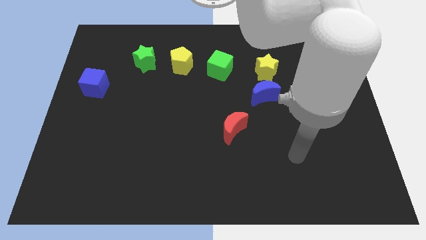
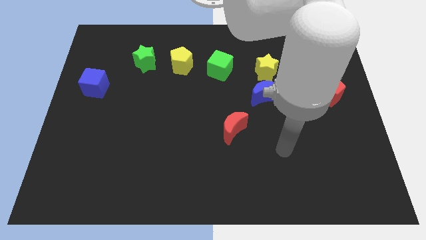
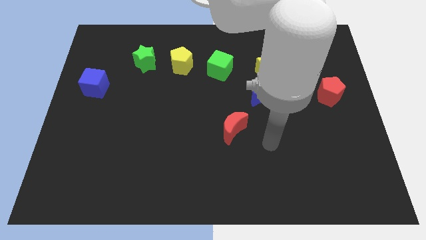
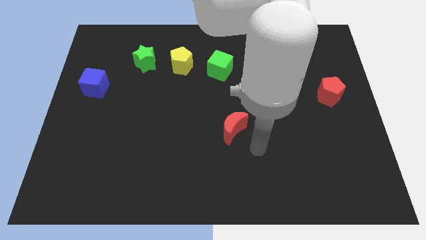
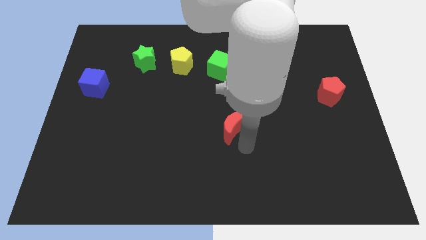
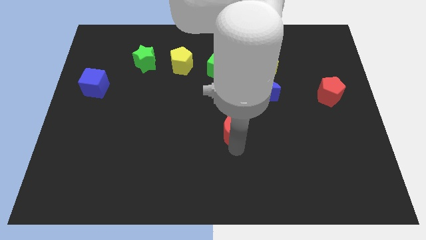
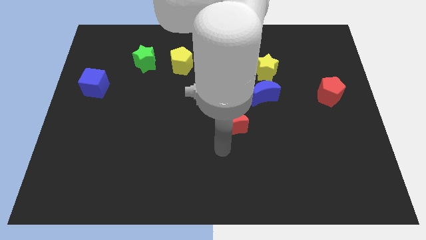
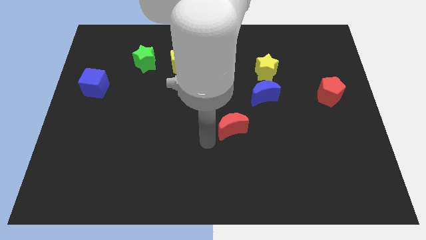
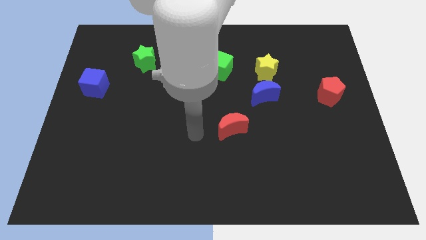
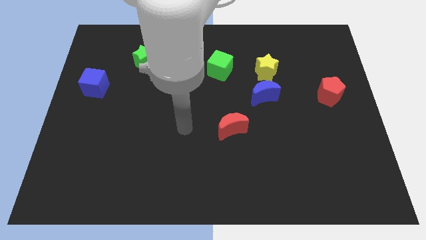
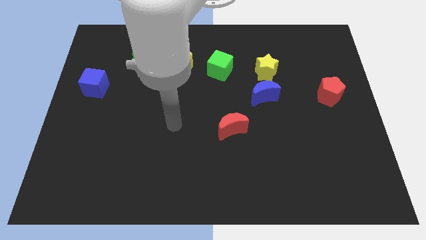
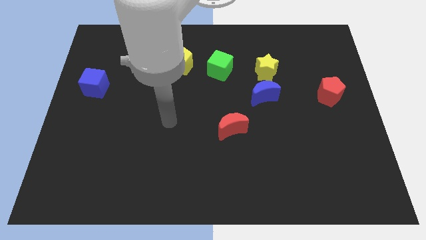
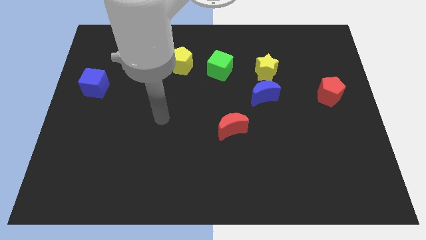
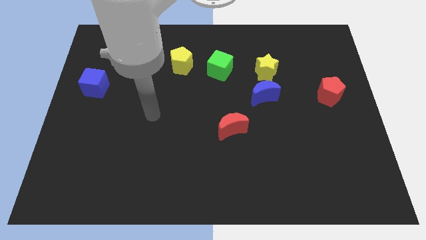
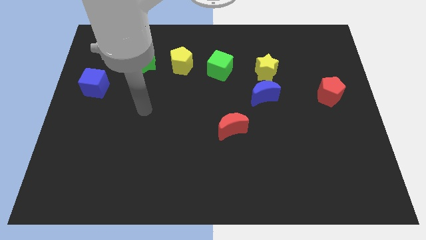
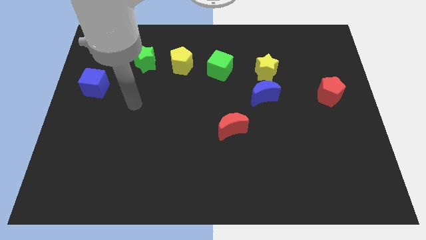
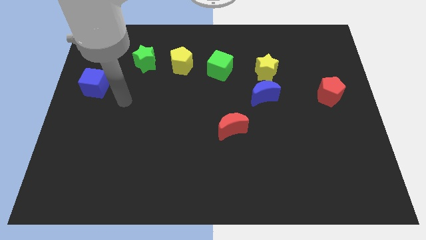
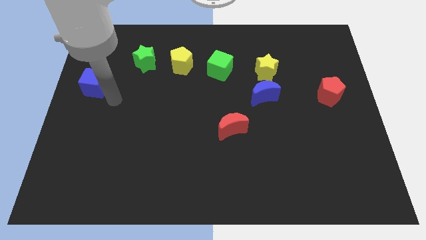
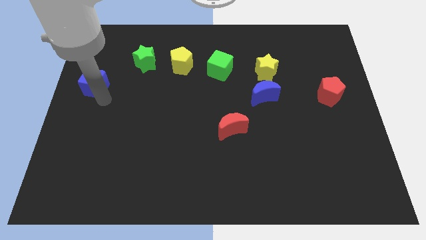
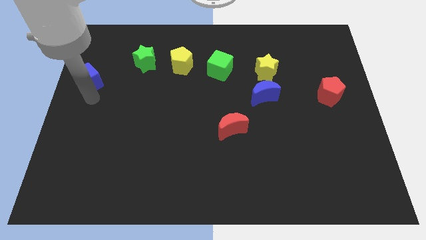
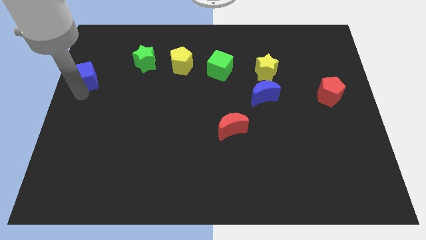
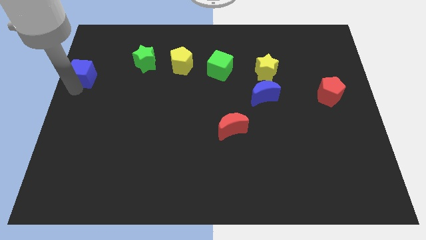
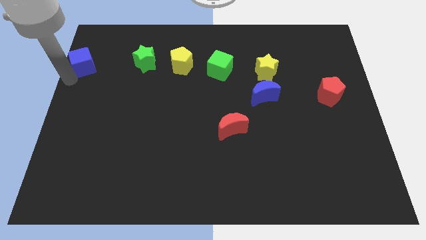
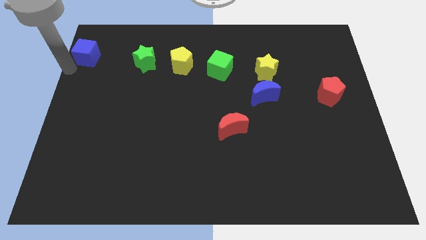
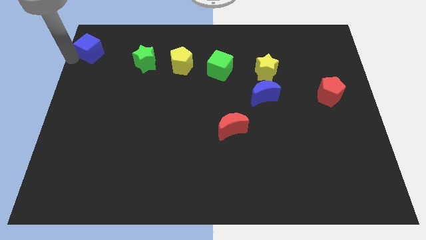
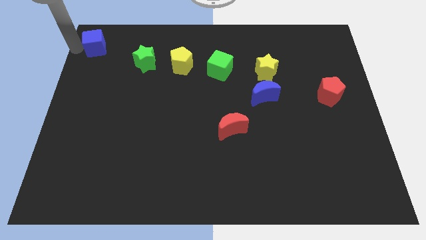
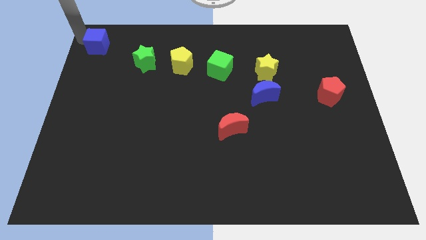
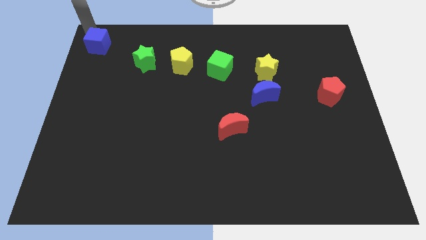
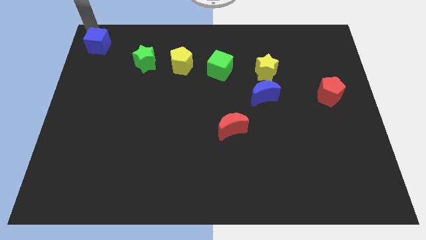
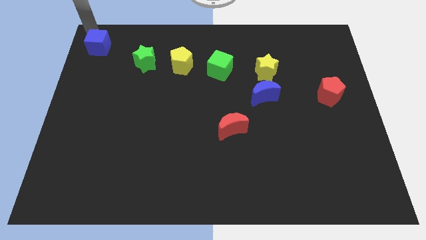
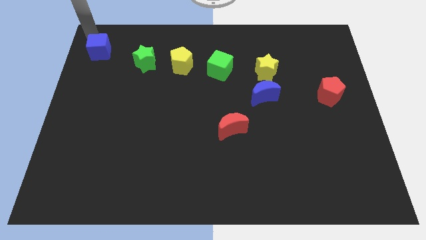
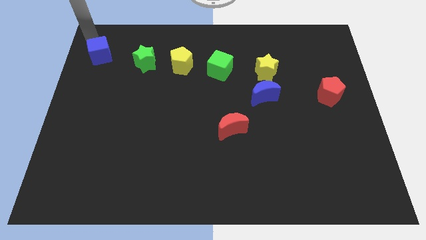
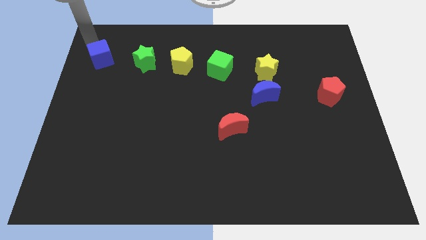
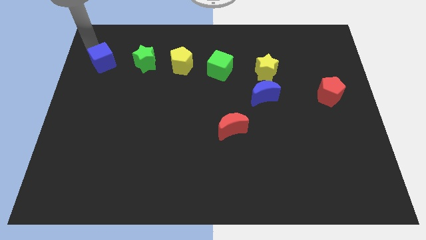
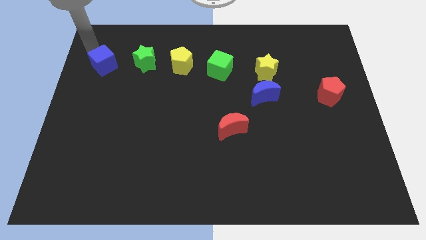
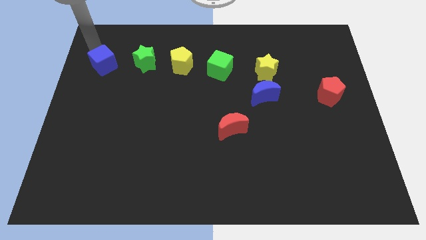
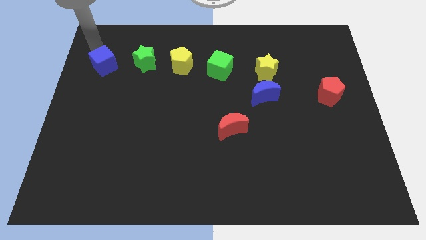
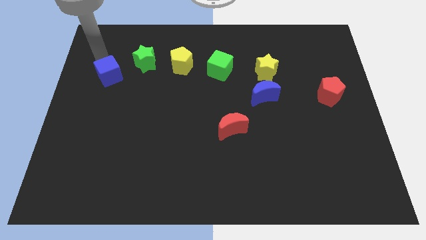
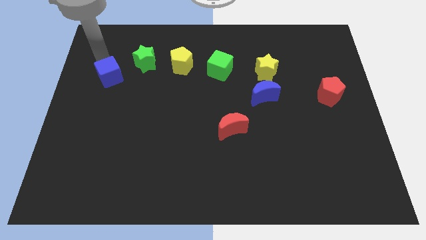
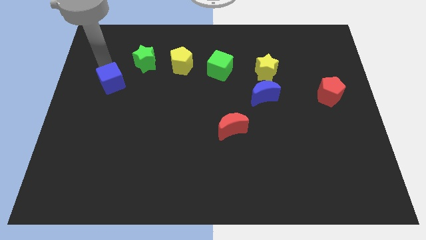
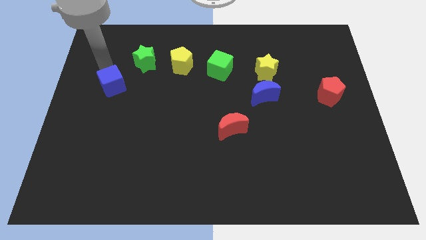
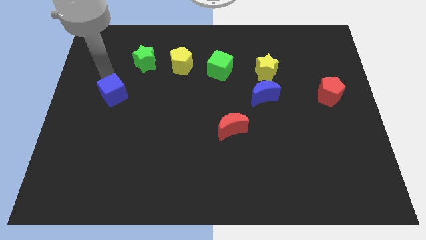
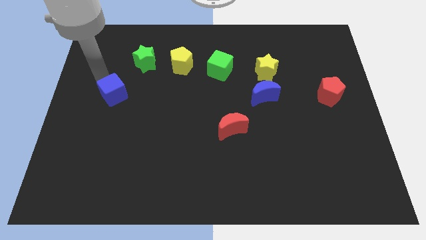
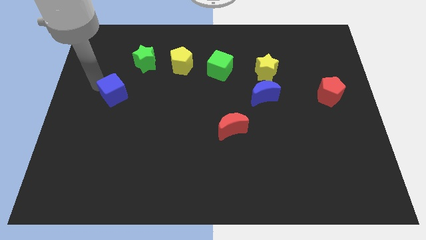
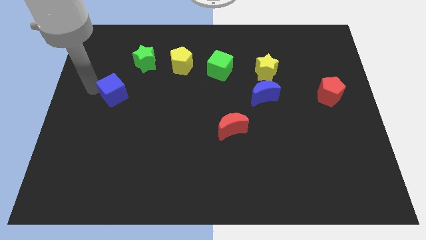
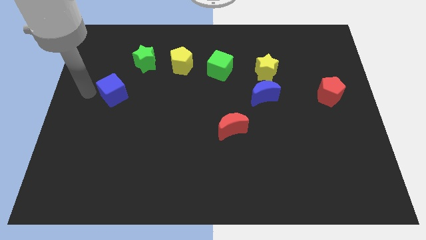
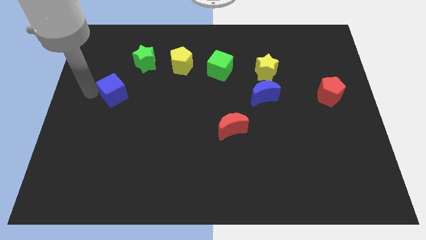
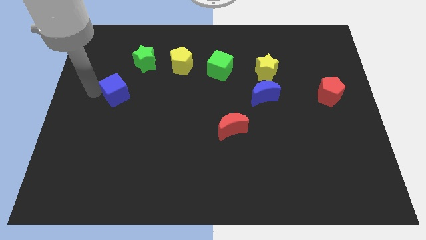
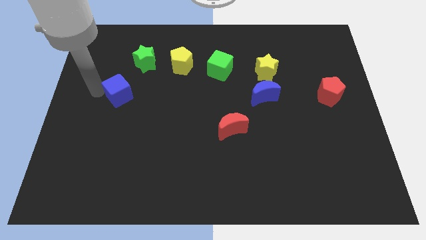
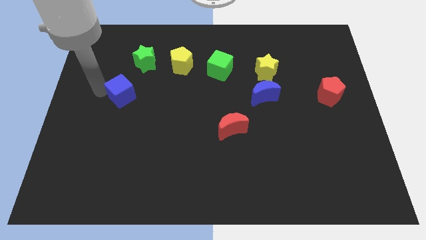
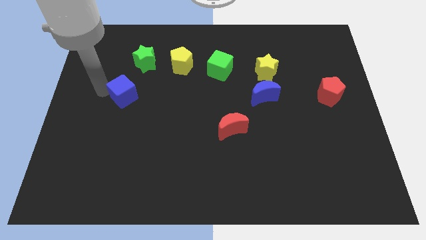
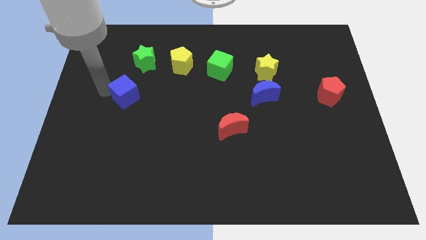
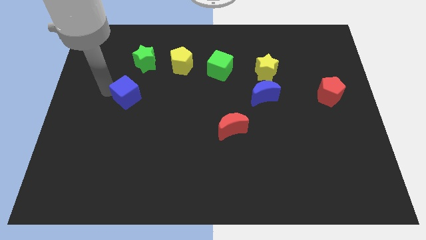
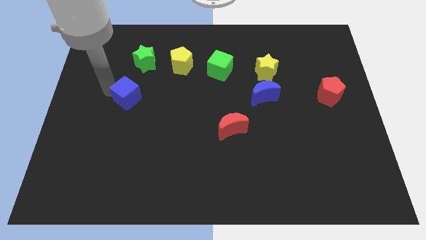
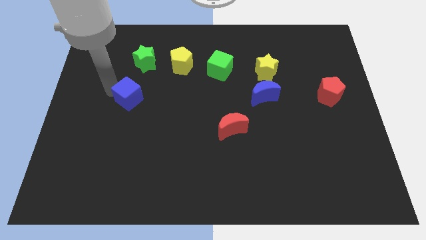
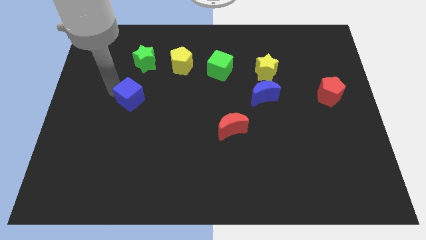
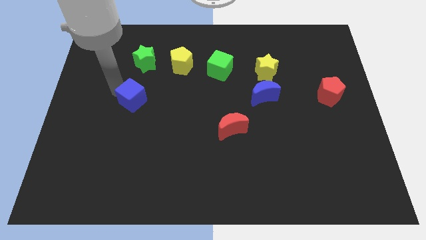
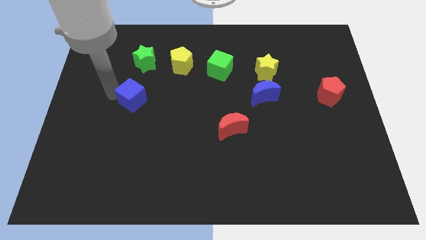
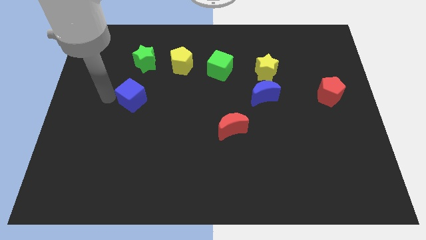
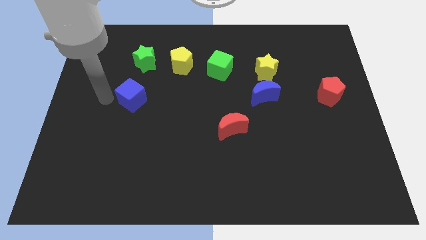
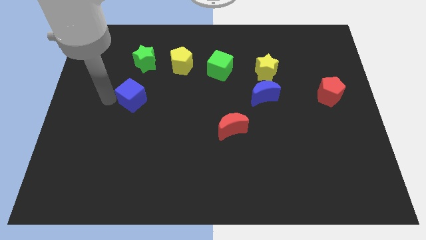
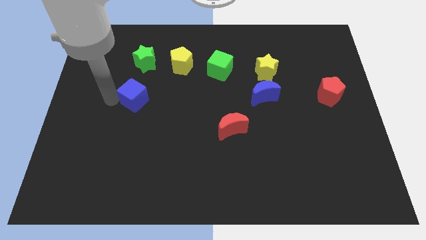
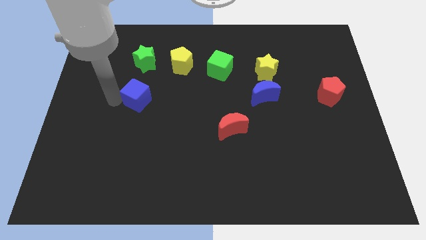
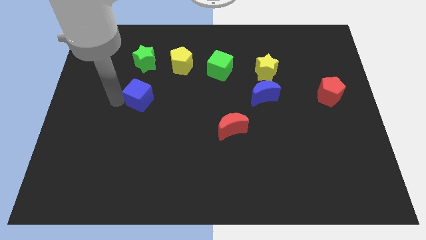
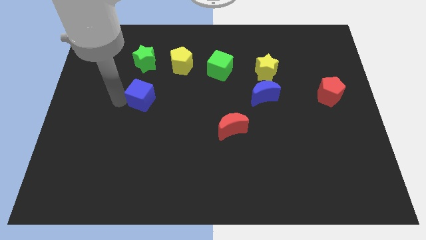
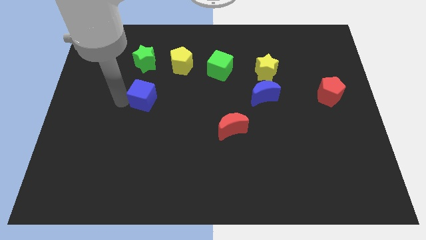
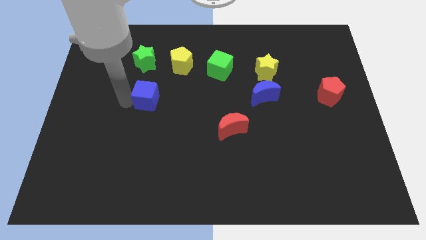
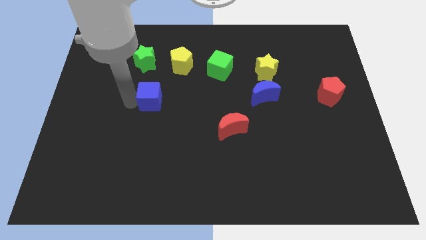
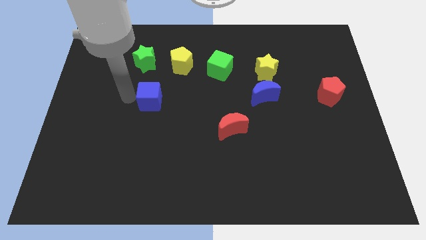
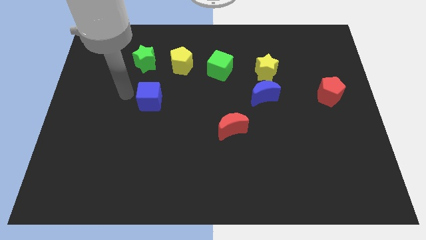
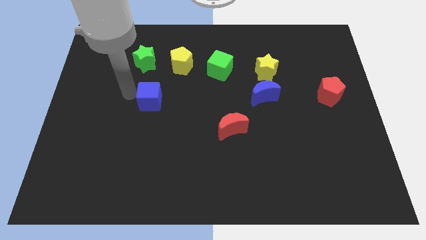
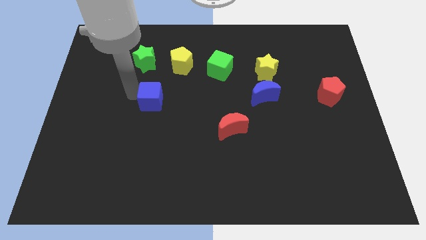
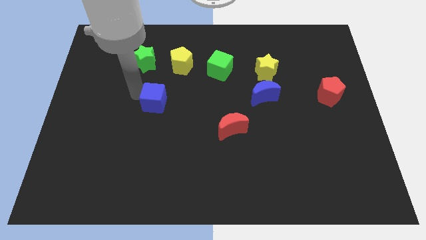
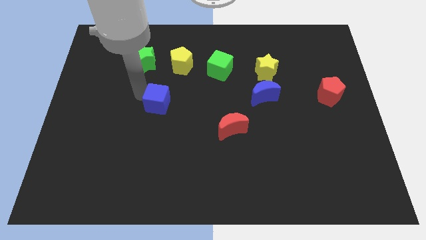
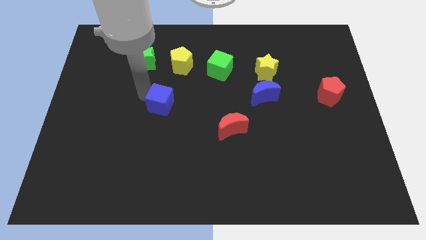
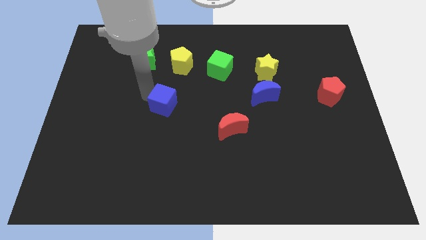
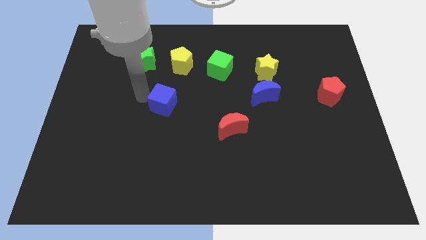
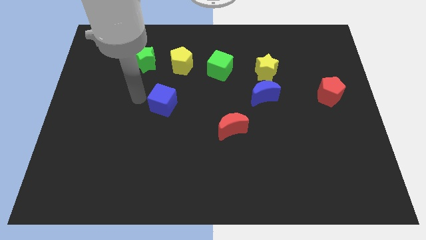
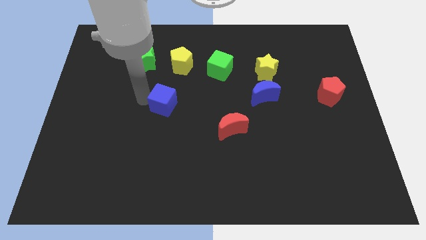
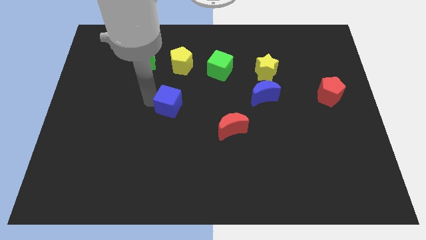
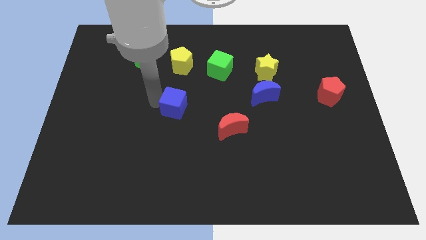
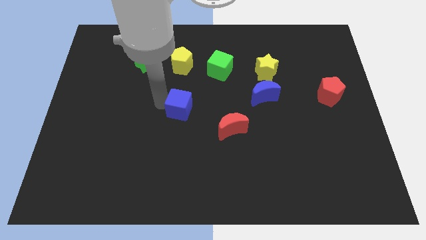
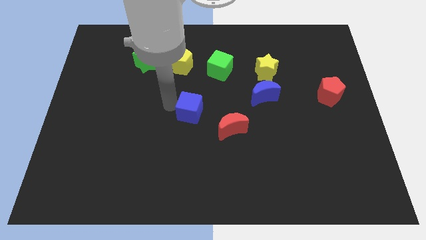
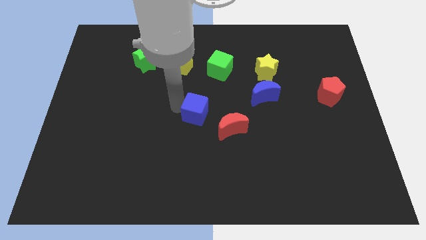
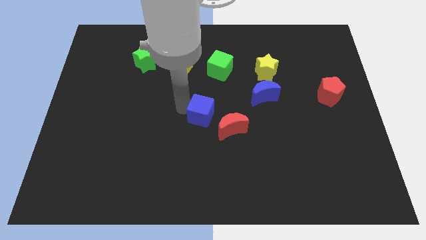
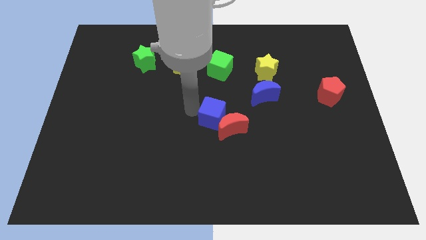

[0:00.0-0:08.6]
move the blue cube to the red moon
